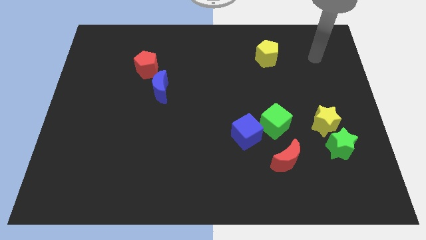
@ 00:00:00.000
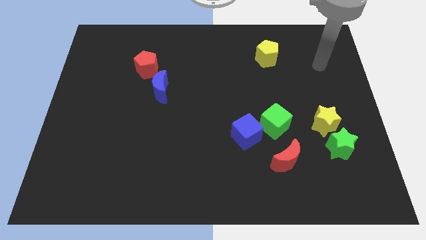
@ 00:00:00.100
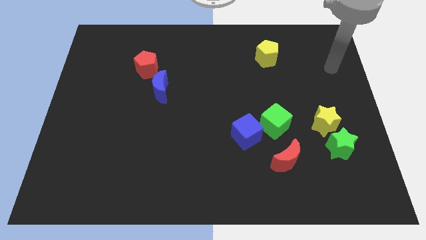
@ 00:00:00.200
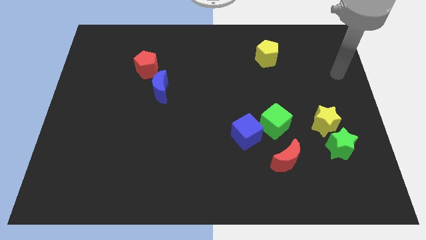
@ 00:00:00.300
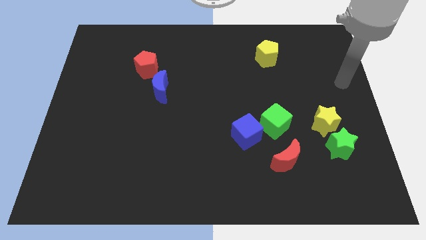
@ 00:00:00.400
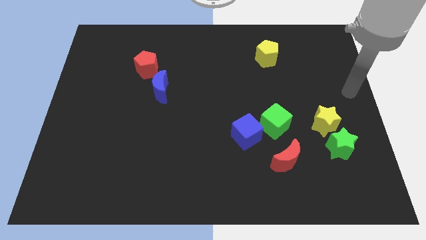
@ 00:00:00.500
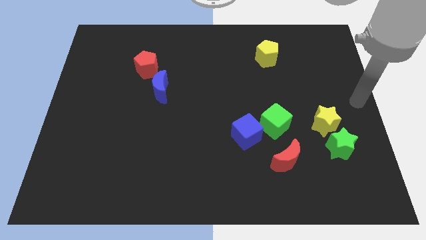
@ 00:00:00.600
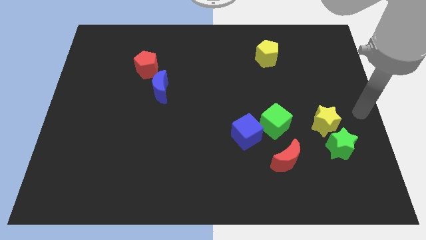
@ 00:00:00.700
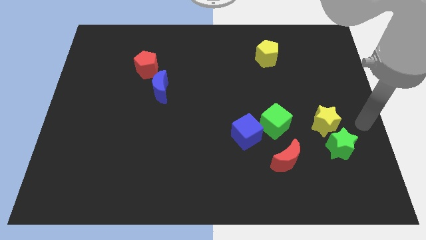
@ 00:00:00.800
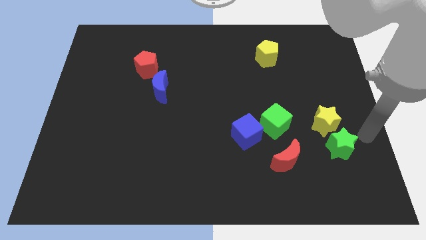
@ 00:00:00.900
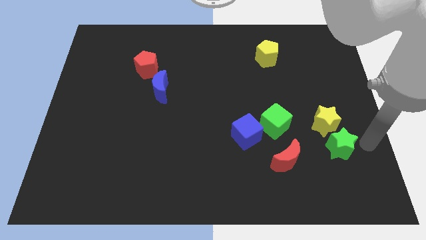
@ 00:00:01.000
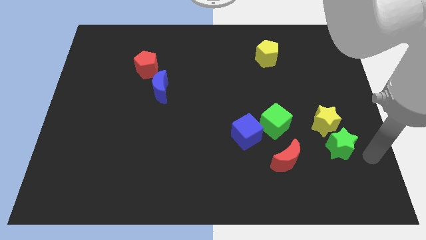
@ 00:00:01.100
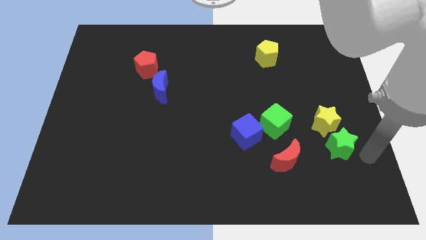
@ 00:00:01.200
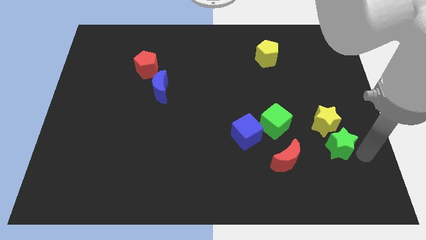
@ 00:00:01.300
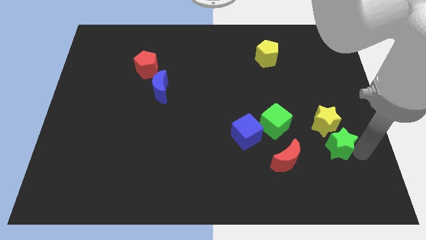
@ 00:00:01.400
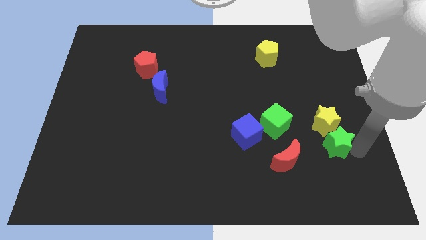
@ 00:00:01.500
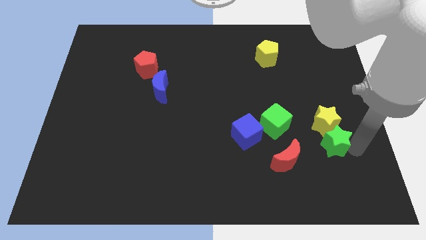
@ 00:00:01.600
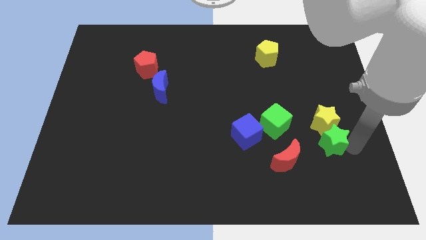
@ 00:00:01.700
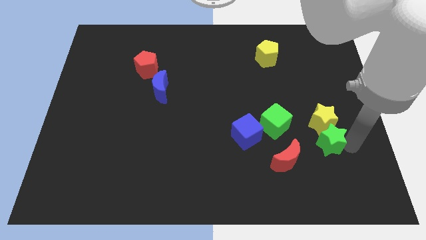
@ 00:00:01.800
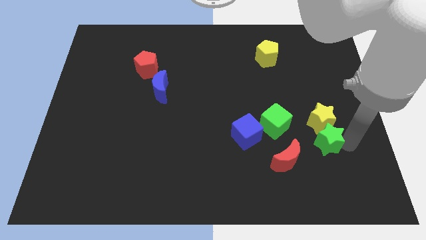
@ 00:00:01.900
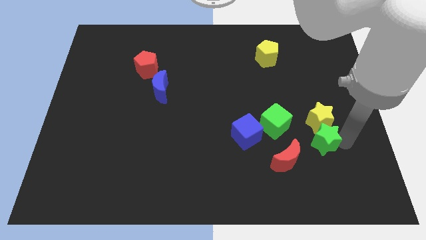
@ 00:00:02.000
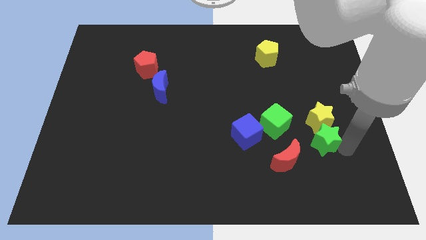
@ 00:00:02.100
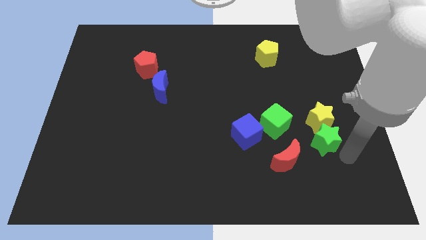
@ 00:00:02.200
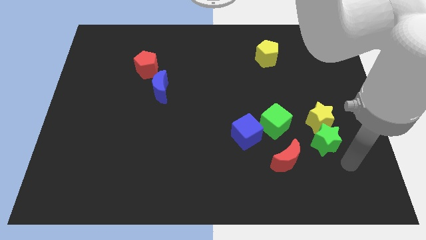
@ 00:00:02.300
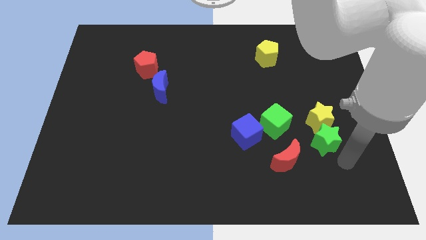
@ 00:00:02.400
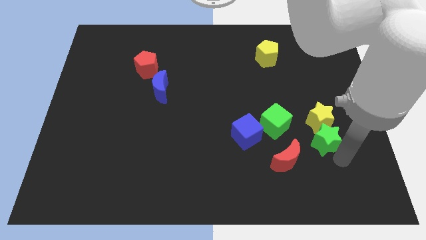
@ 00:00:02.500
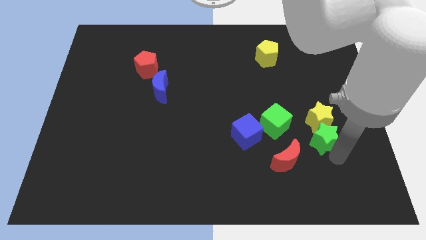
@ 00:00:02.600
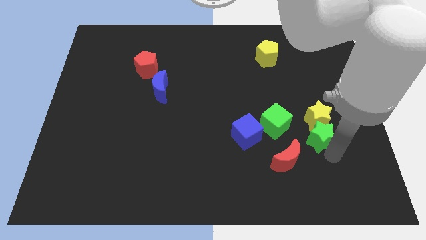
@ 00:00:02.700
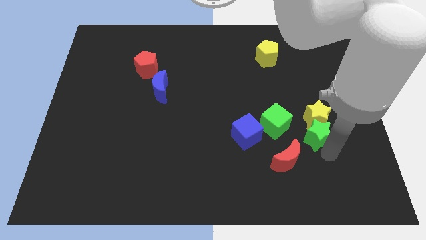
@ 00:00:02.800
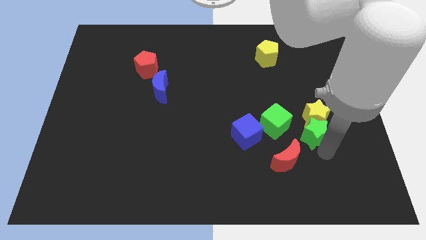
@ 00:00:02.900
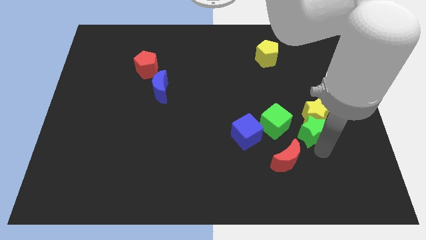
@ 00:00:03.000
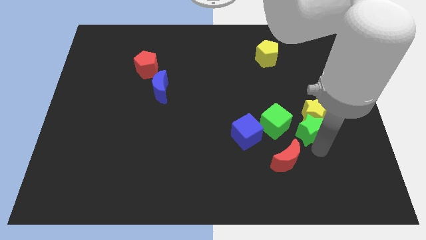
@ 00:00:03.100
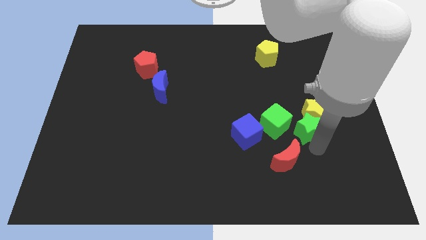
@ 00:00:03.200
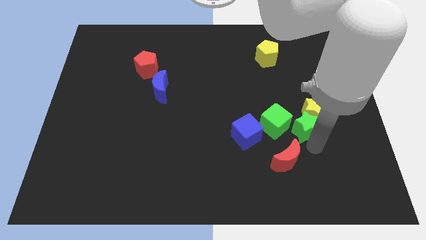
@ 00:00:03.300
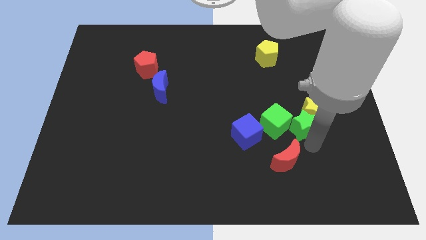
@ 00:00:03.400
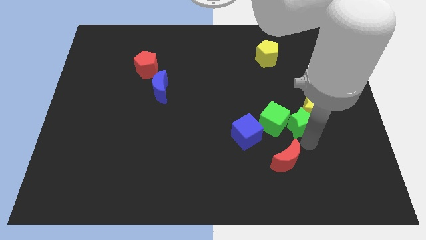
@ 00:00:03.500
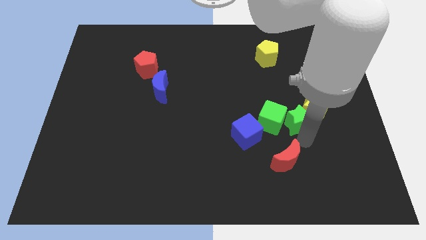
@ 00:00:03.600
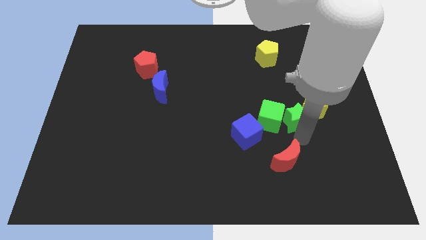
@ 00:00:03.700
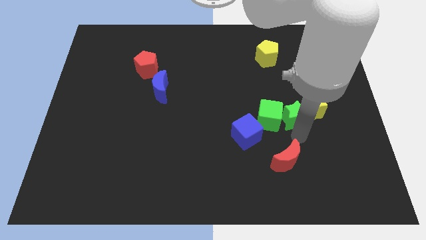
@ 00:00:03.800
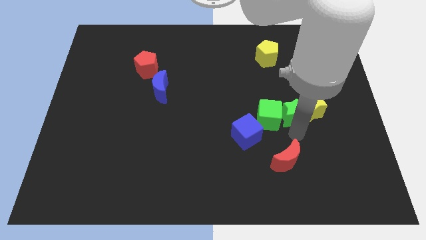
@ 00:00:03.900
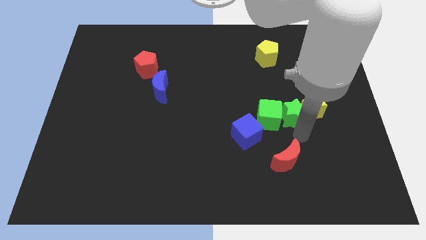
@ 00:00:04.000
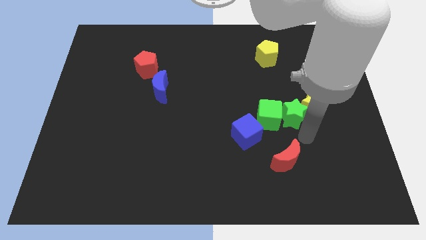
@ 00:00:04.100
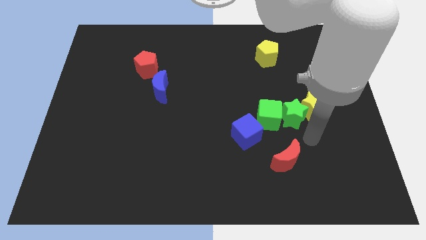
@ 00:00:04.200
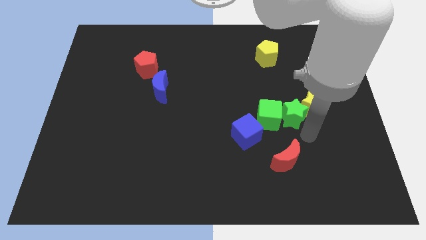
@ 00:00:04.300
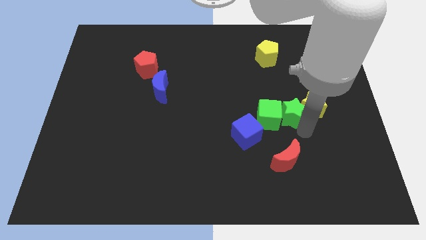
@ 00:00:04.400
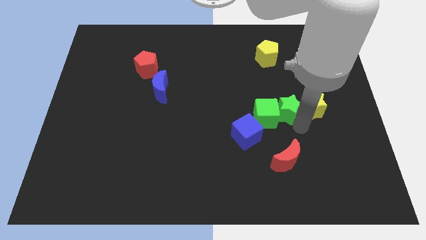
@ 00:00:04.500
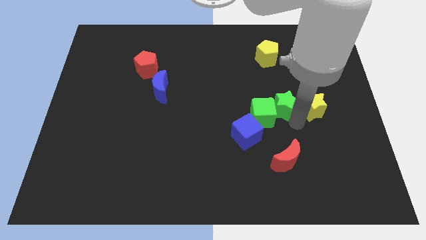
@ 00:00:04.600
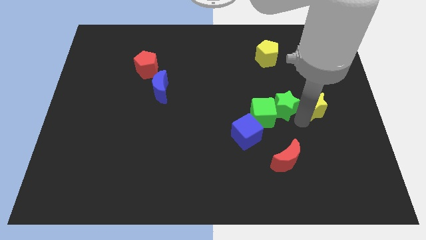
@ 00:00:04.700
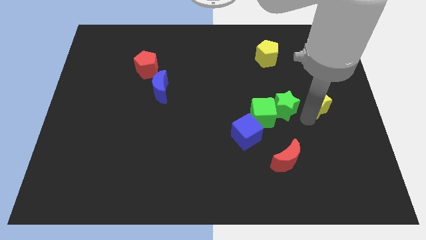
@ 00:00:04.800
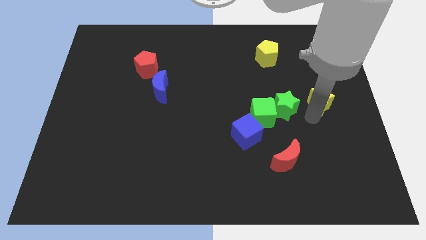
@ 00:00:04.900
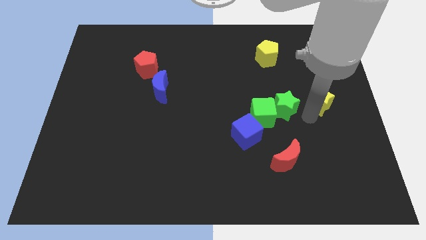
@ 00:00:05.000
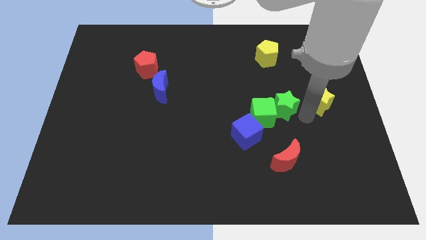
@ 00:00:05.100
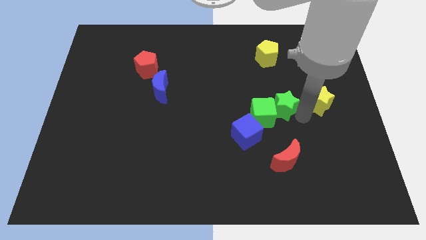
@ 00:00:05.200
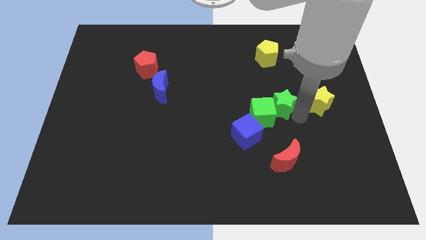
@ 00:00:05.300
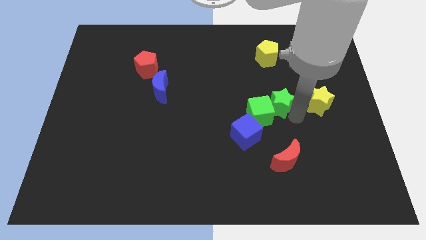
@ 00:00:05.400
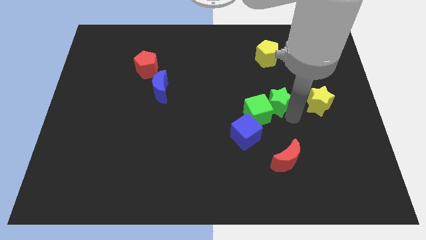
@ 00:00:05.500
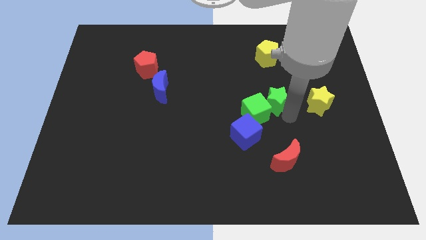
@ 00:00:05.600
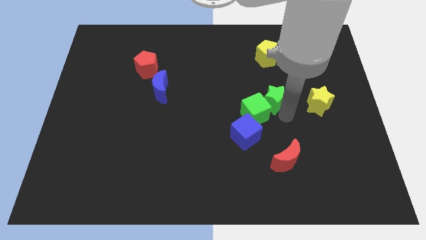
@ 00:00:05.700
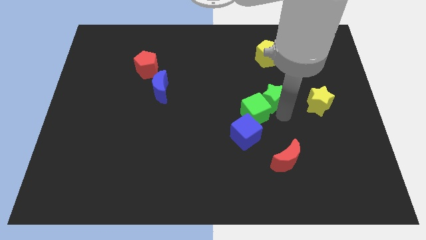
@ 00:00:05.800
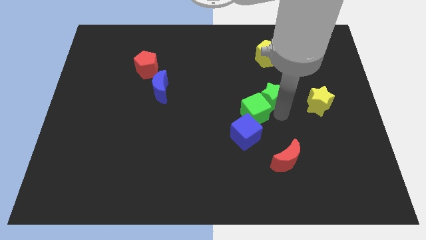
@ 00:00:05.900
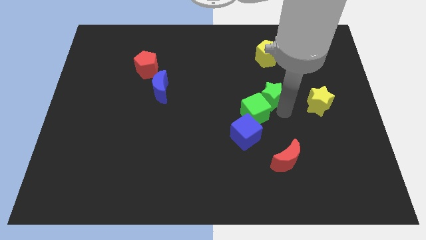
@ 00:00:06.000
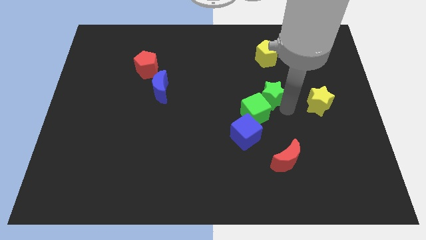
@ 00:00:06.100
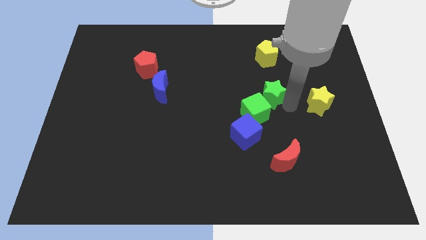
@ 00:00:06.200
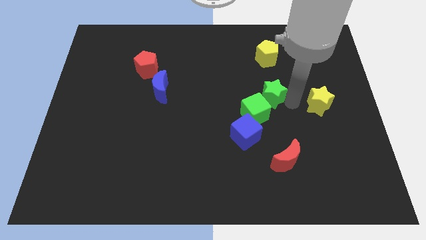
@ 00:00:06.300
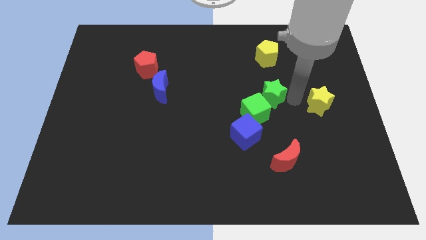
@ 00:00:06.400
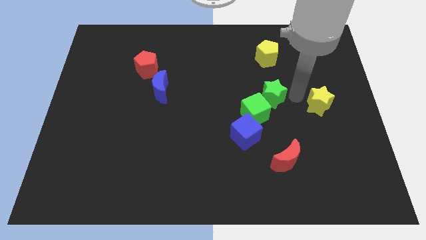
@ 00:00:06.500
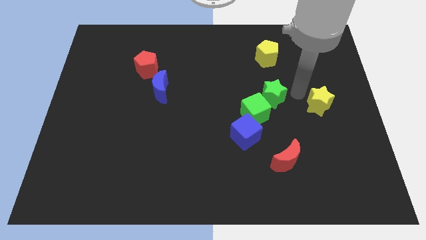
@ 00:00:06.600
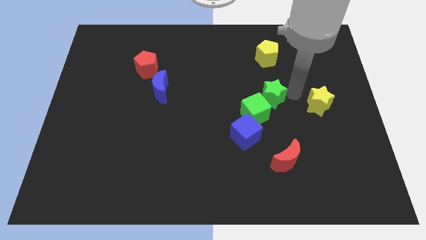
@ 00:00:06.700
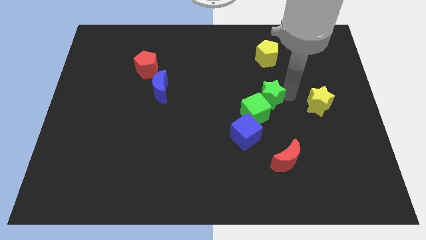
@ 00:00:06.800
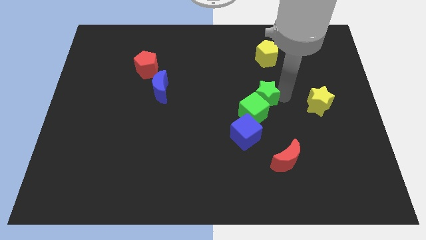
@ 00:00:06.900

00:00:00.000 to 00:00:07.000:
push the green star to the center
